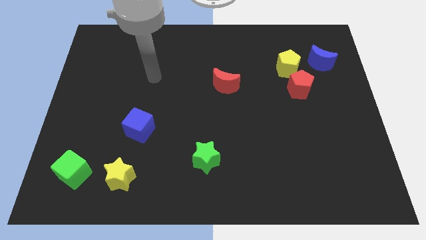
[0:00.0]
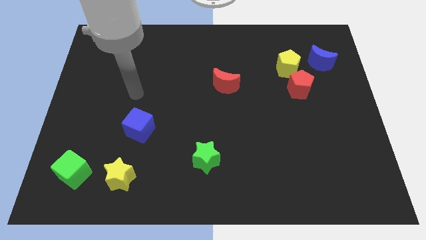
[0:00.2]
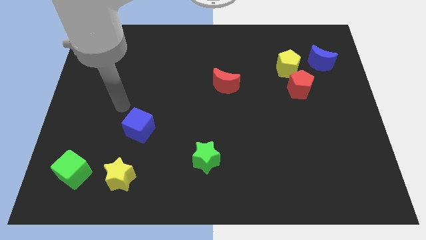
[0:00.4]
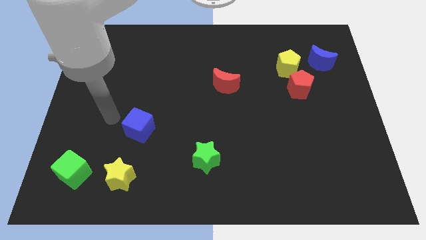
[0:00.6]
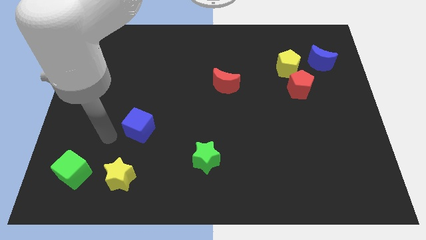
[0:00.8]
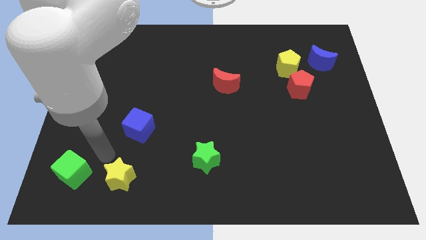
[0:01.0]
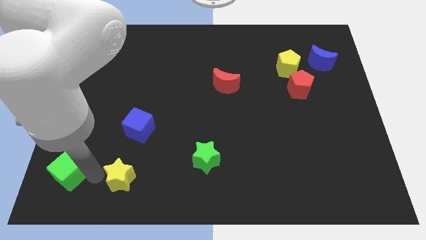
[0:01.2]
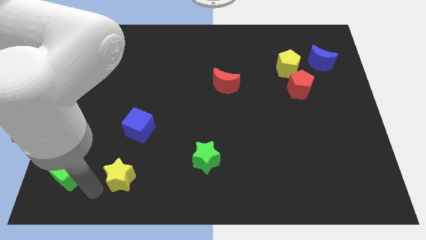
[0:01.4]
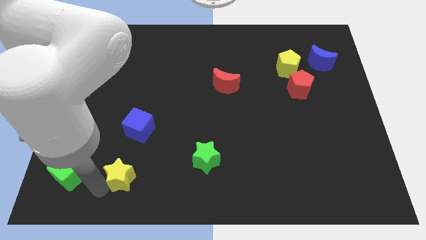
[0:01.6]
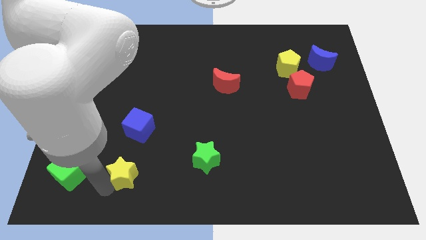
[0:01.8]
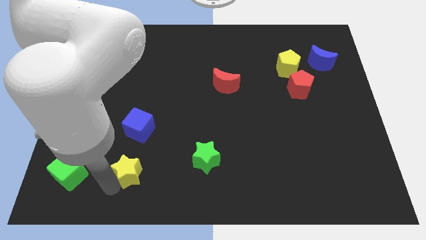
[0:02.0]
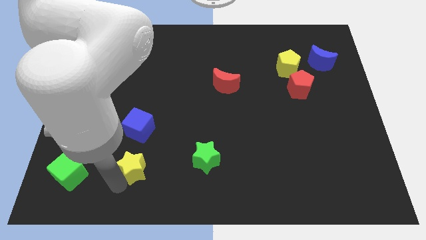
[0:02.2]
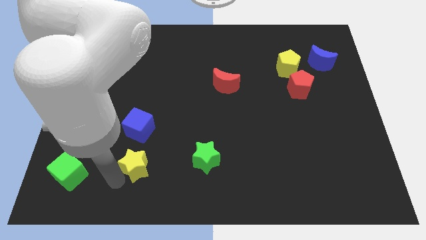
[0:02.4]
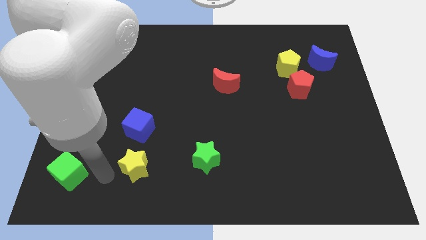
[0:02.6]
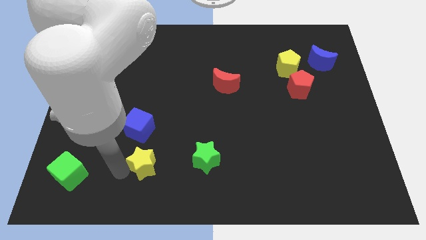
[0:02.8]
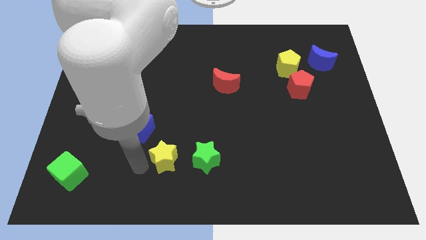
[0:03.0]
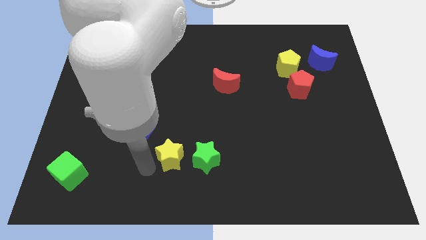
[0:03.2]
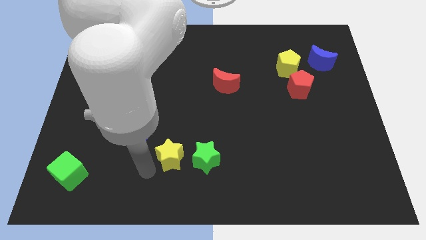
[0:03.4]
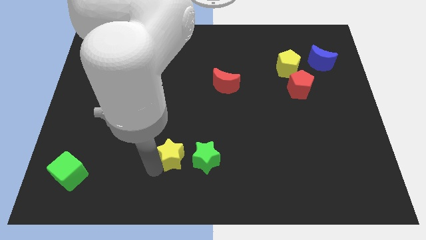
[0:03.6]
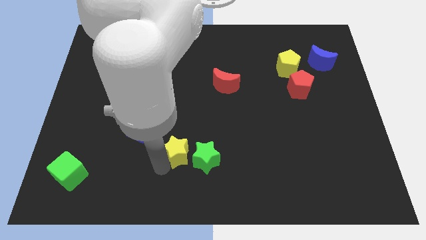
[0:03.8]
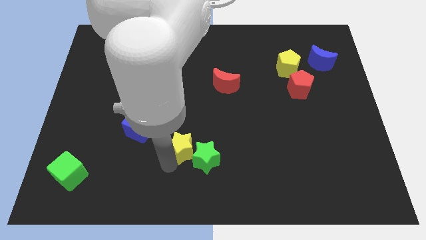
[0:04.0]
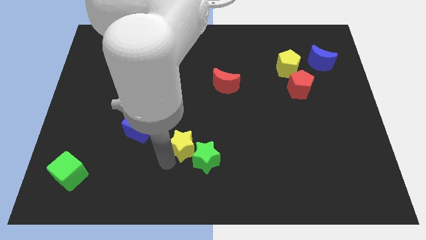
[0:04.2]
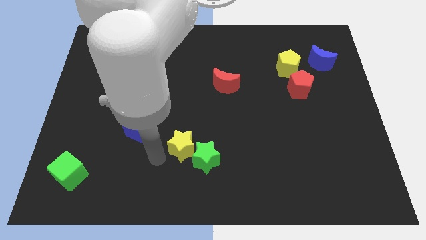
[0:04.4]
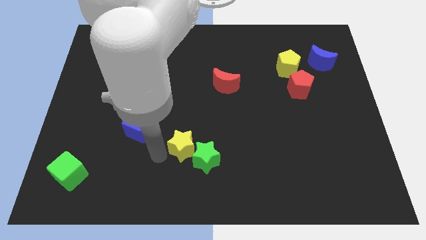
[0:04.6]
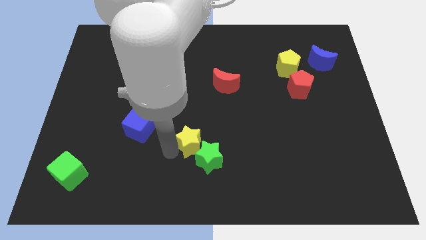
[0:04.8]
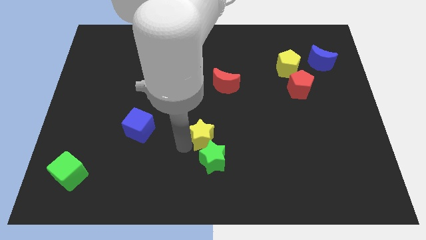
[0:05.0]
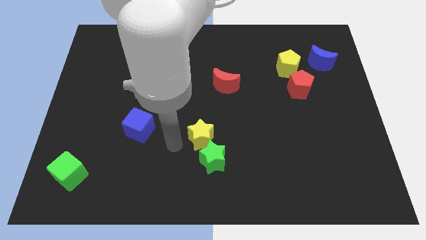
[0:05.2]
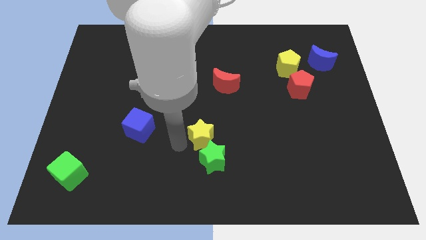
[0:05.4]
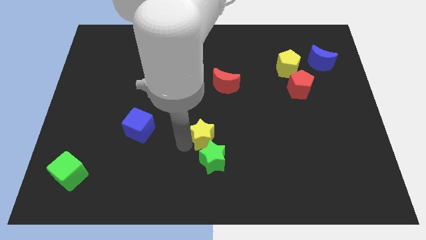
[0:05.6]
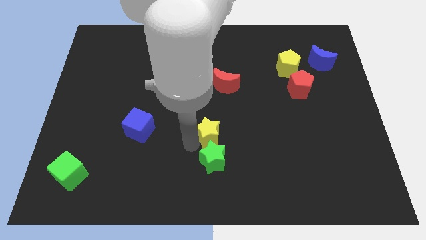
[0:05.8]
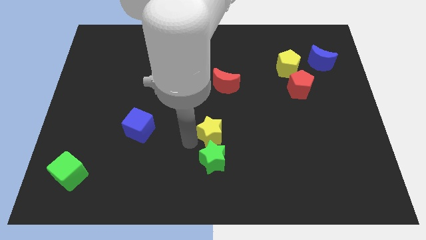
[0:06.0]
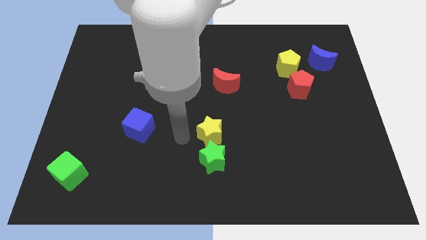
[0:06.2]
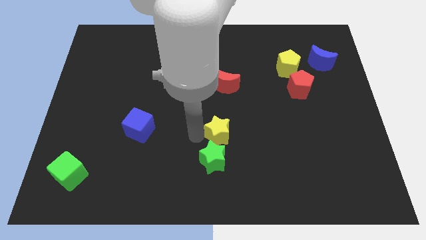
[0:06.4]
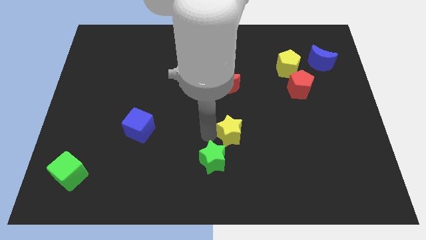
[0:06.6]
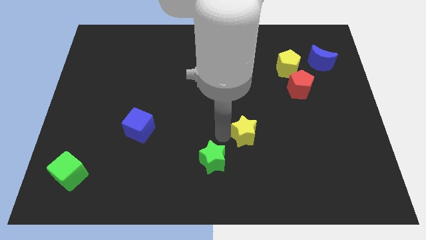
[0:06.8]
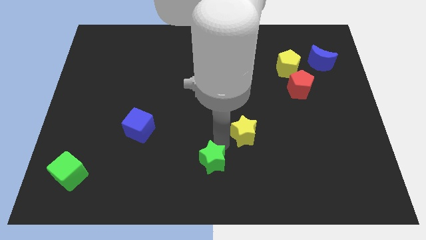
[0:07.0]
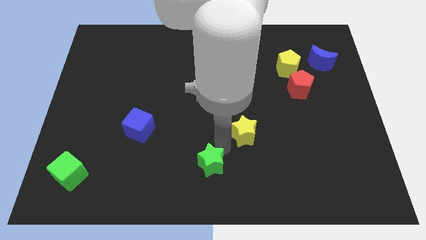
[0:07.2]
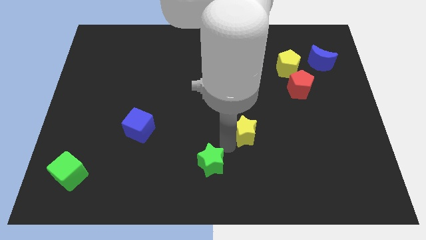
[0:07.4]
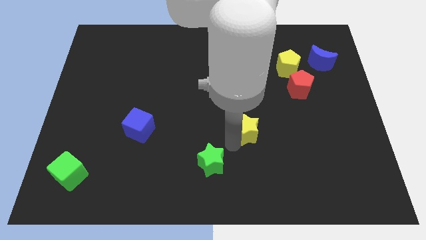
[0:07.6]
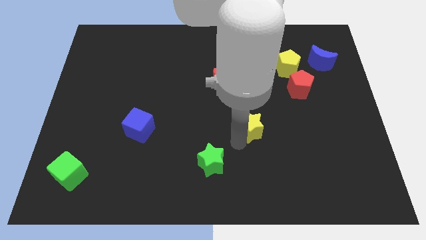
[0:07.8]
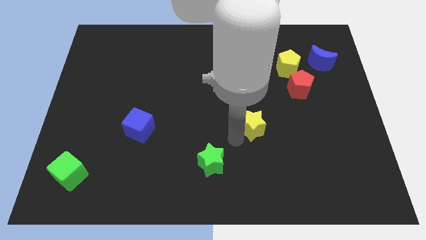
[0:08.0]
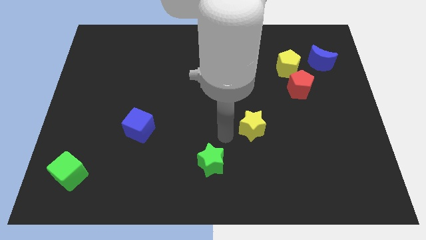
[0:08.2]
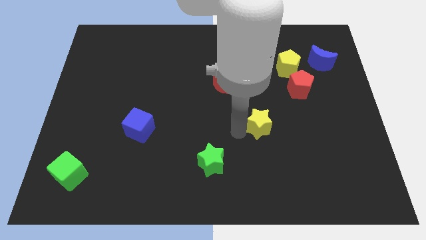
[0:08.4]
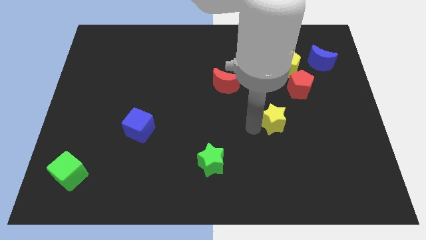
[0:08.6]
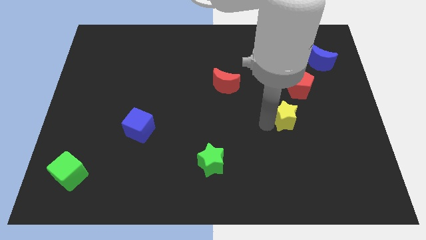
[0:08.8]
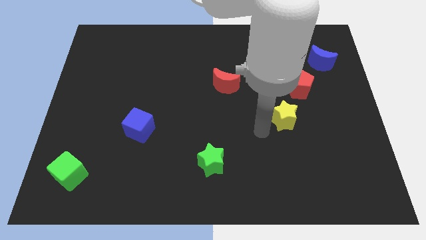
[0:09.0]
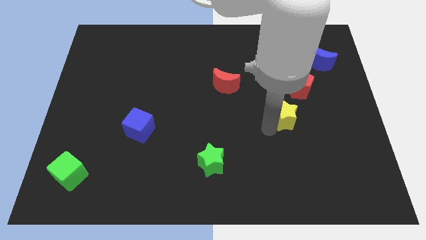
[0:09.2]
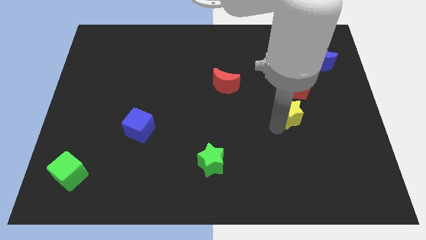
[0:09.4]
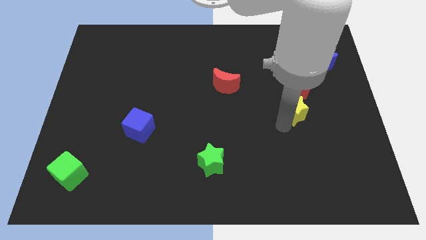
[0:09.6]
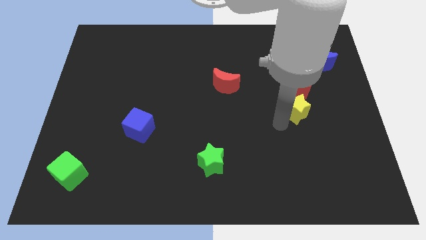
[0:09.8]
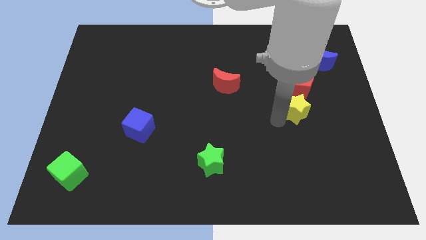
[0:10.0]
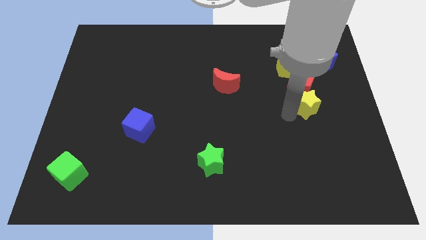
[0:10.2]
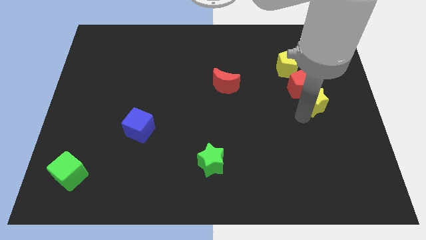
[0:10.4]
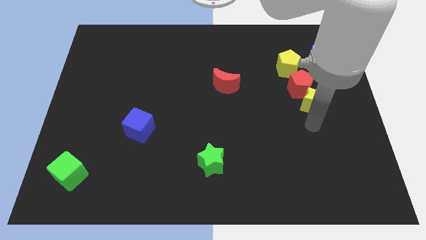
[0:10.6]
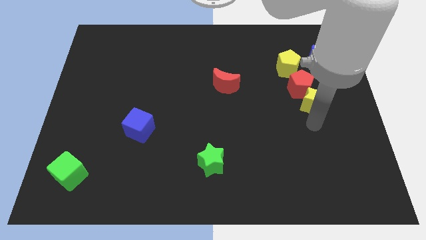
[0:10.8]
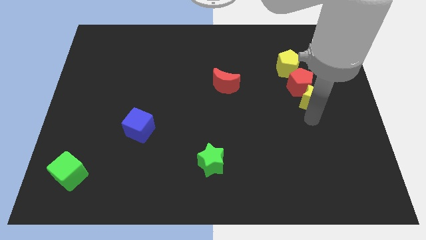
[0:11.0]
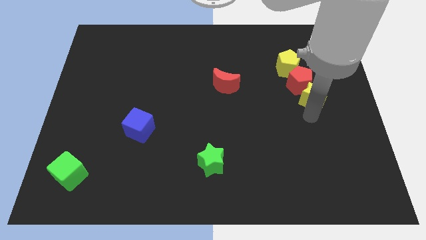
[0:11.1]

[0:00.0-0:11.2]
put the yellow star to the bottom right of the yellow pentagon

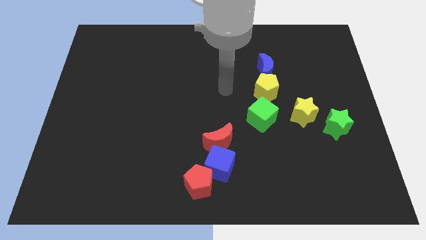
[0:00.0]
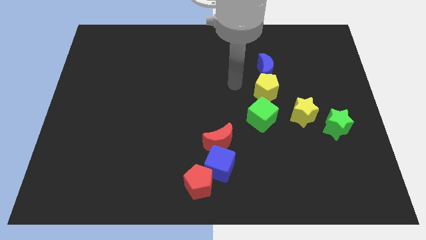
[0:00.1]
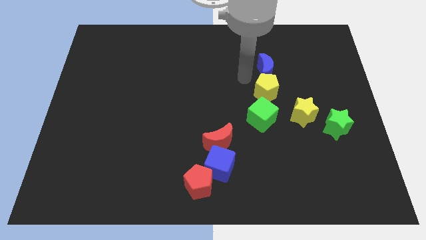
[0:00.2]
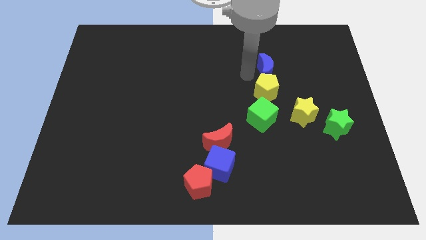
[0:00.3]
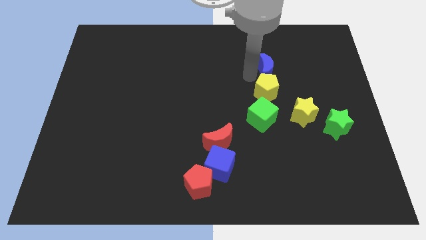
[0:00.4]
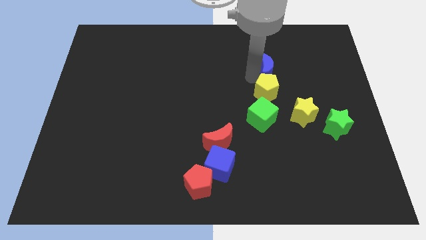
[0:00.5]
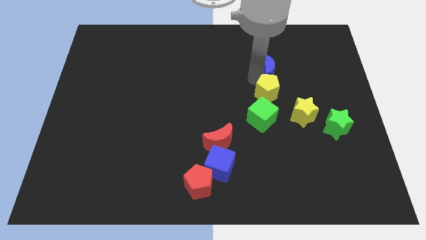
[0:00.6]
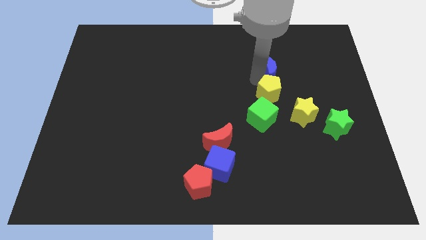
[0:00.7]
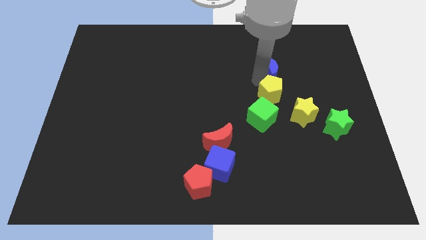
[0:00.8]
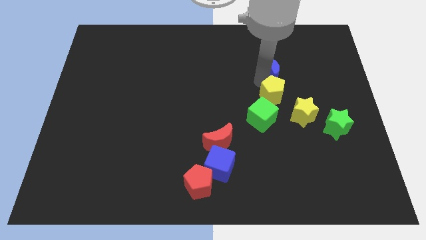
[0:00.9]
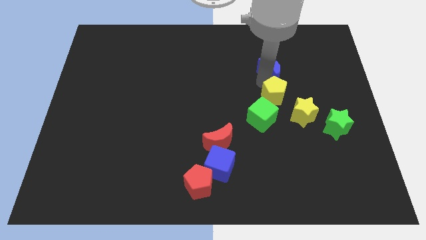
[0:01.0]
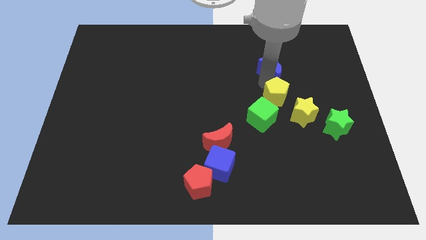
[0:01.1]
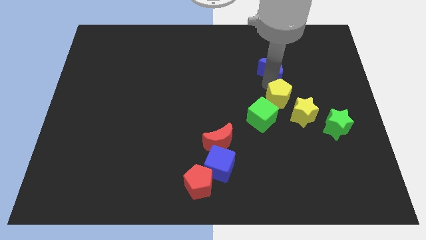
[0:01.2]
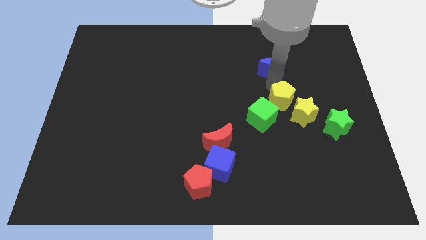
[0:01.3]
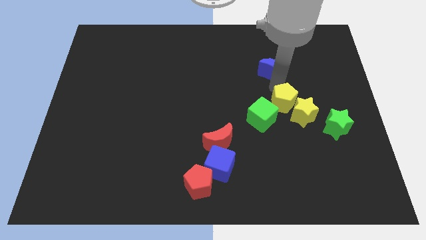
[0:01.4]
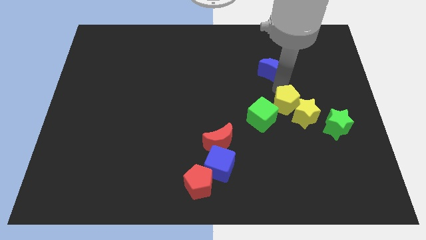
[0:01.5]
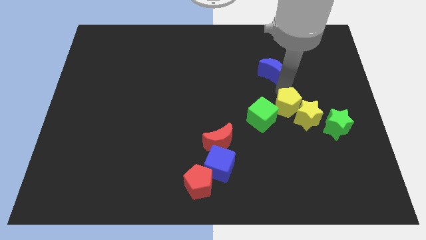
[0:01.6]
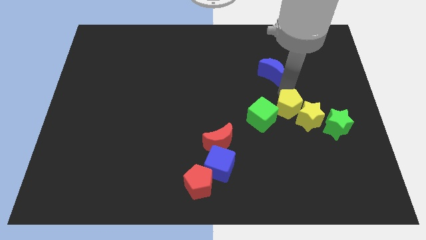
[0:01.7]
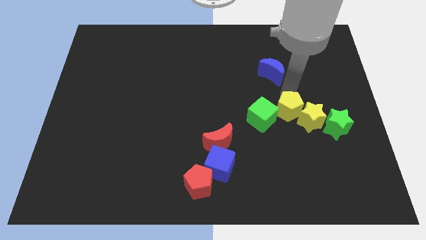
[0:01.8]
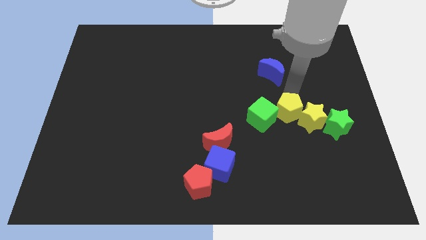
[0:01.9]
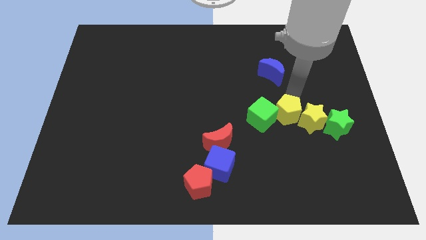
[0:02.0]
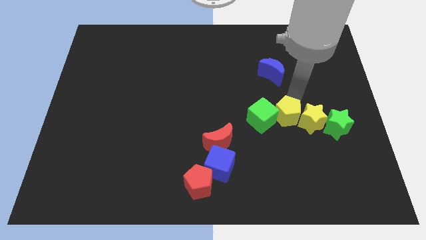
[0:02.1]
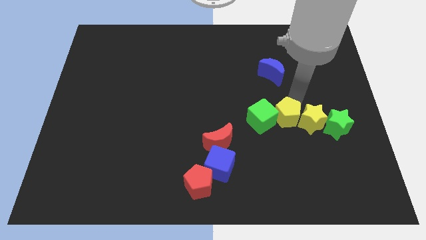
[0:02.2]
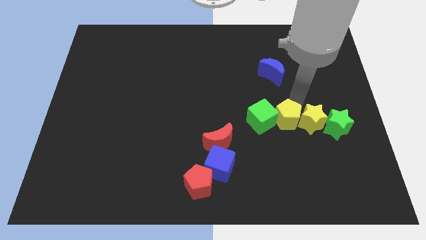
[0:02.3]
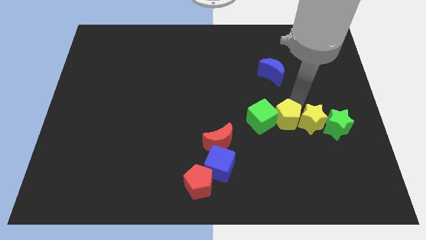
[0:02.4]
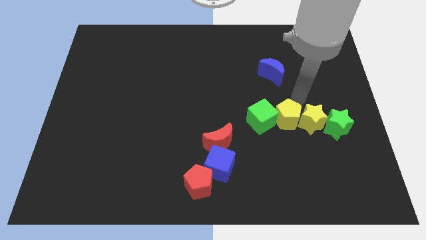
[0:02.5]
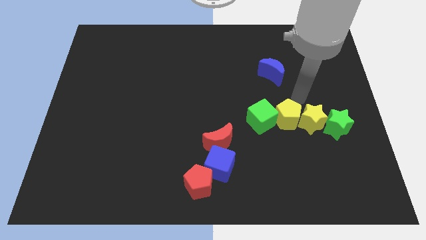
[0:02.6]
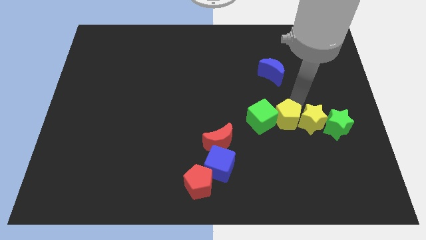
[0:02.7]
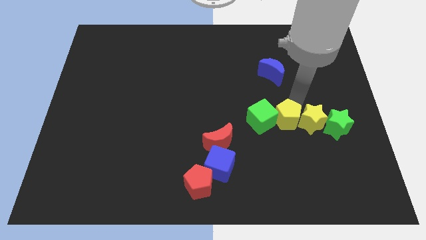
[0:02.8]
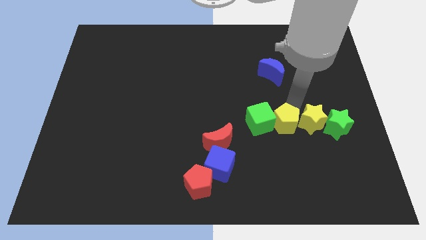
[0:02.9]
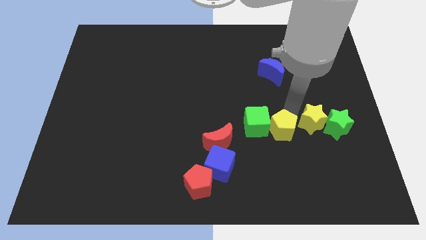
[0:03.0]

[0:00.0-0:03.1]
put the yellow pentagon right of the red moon
